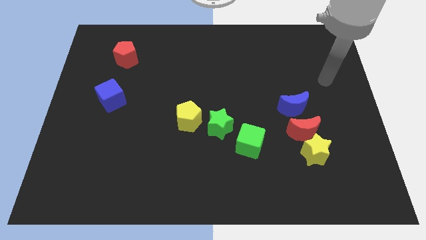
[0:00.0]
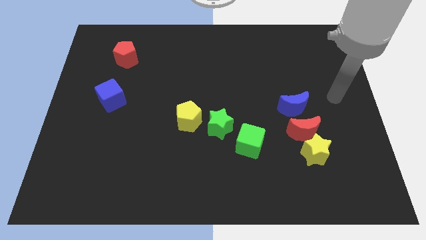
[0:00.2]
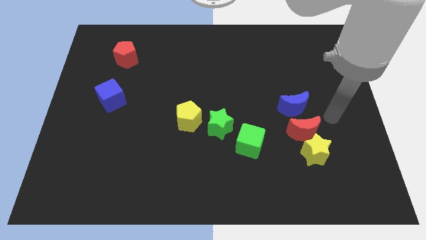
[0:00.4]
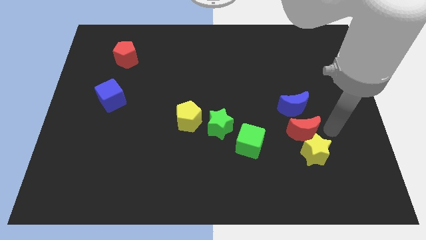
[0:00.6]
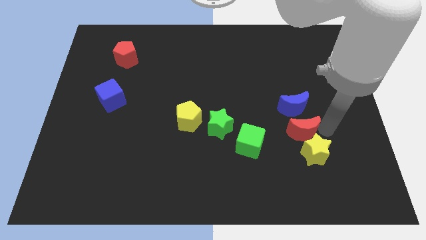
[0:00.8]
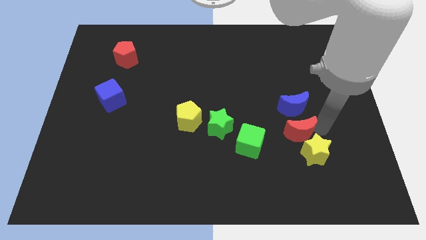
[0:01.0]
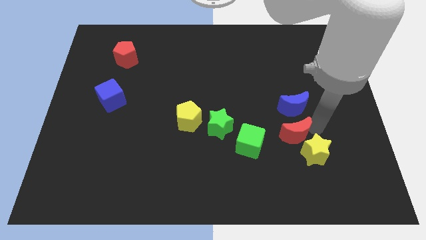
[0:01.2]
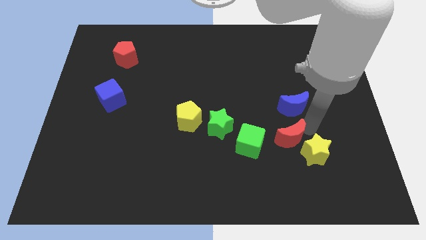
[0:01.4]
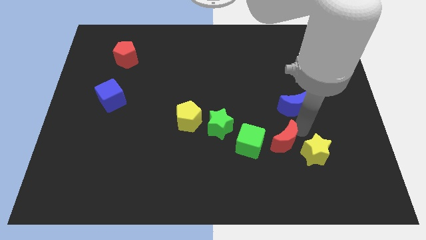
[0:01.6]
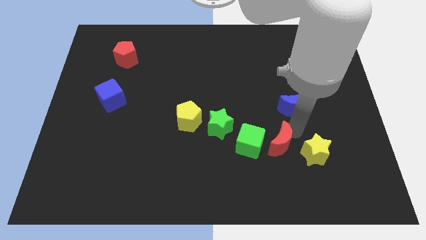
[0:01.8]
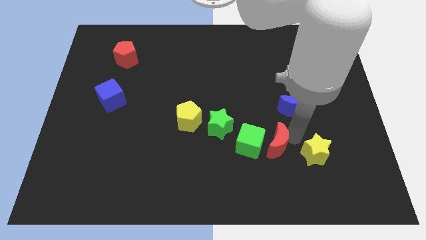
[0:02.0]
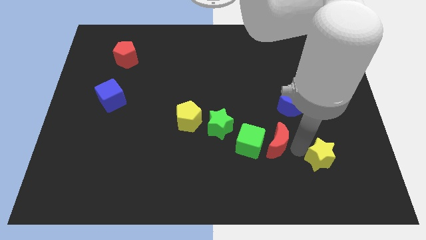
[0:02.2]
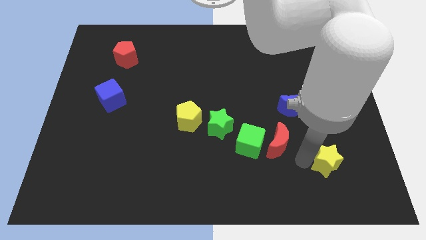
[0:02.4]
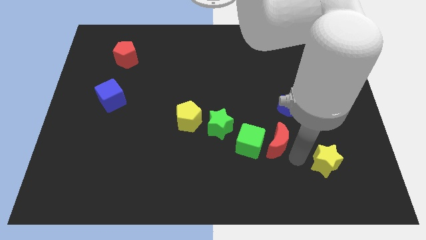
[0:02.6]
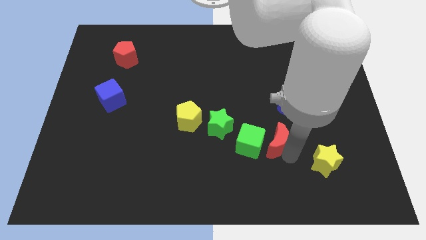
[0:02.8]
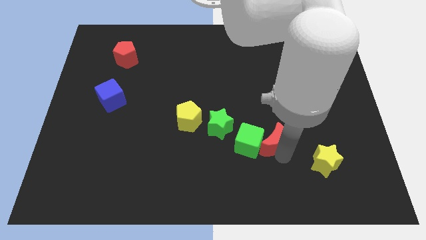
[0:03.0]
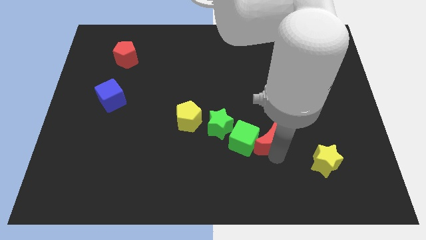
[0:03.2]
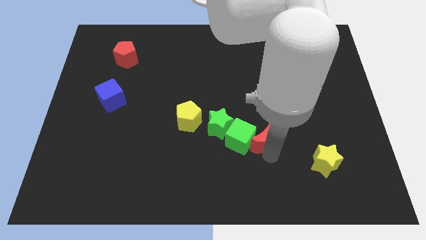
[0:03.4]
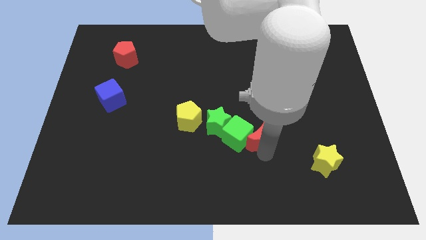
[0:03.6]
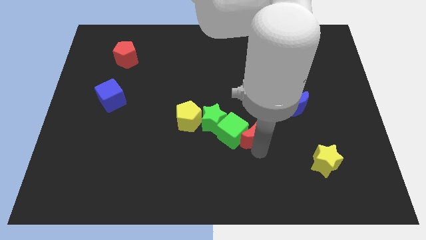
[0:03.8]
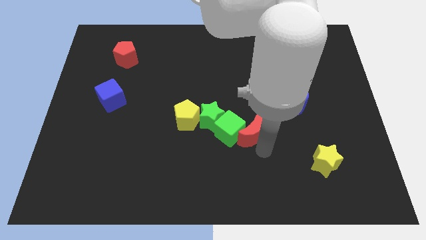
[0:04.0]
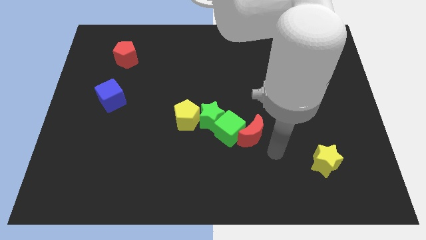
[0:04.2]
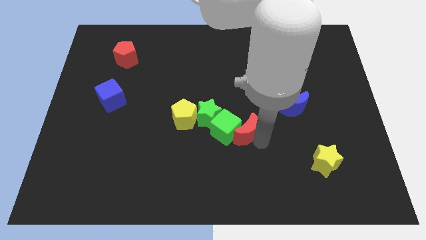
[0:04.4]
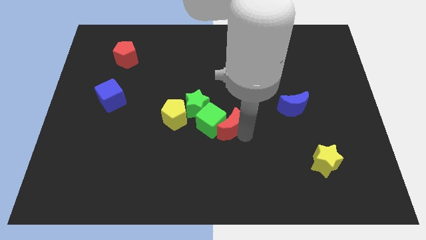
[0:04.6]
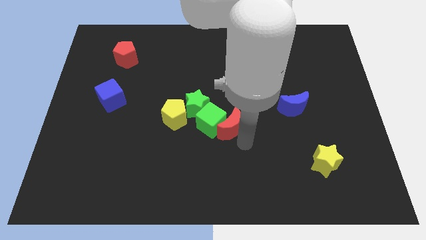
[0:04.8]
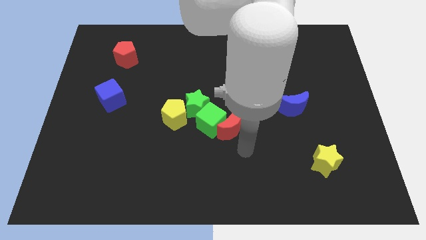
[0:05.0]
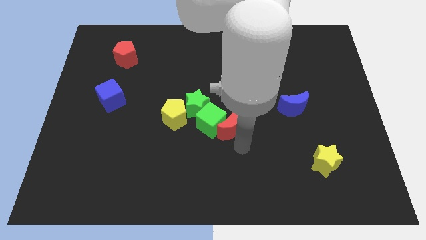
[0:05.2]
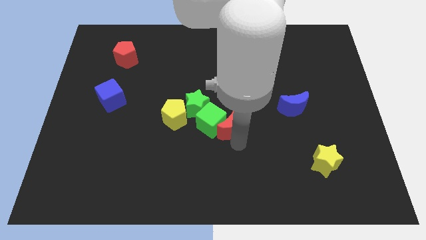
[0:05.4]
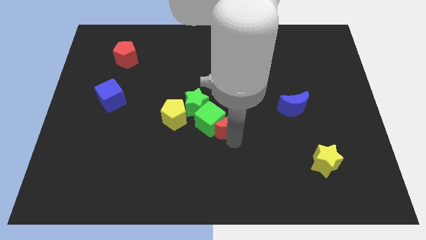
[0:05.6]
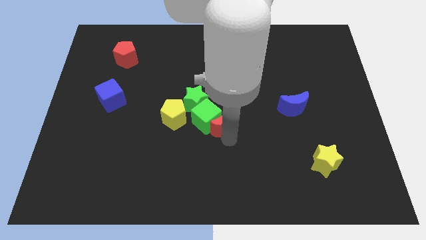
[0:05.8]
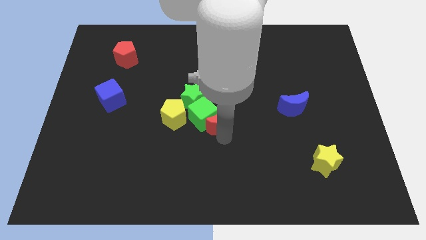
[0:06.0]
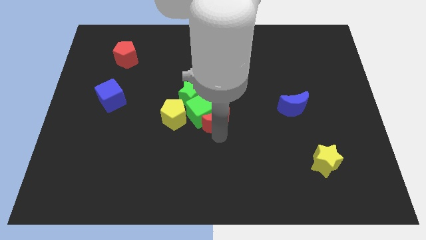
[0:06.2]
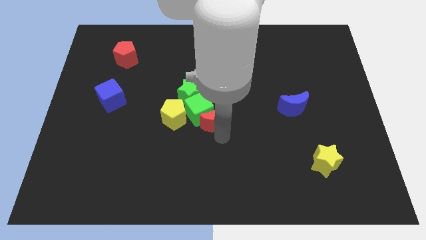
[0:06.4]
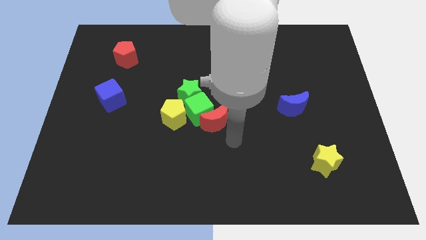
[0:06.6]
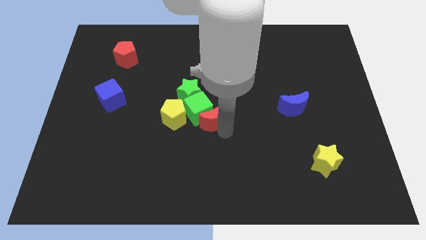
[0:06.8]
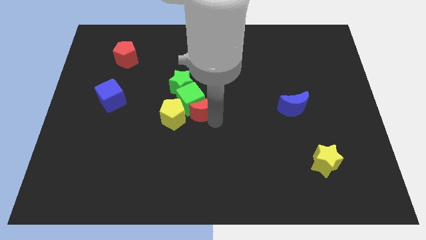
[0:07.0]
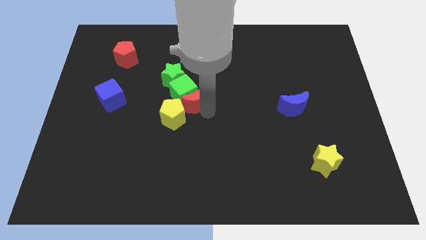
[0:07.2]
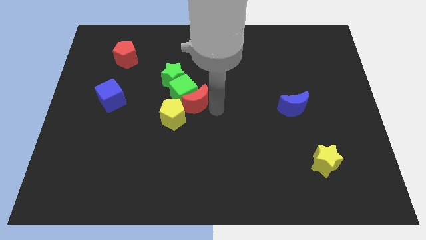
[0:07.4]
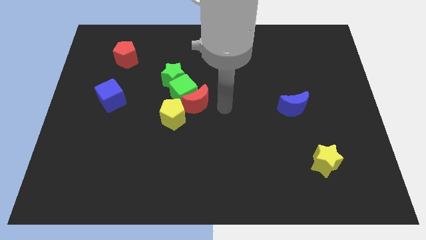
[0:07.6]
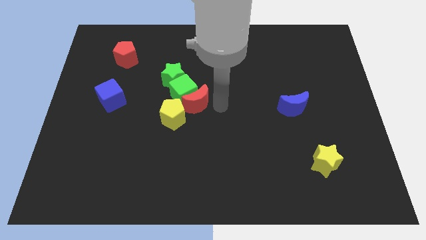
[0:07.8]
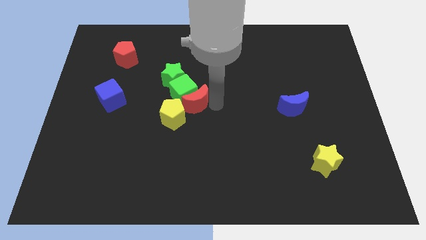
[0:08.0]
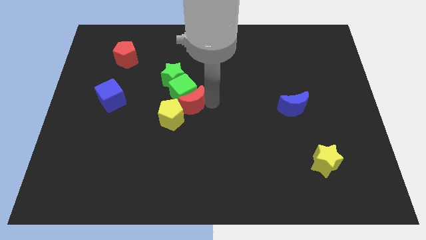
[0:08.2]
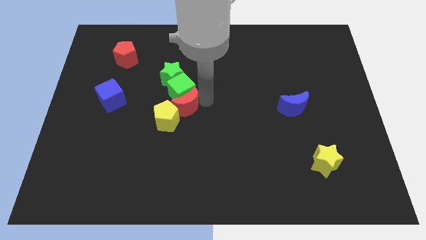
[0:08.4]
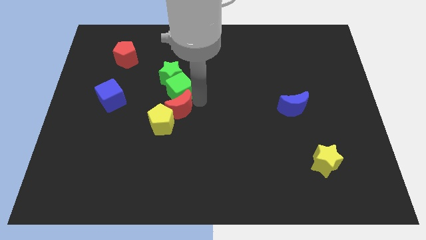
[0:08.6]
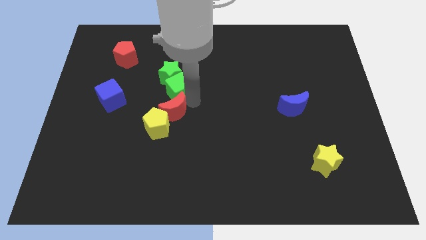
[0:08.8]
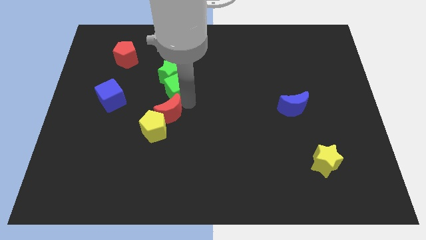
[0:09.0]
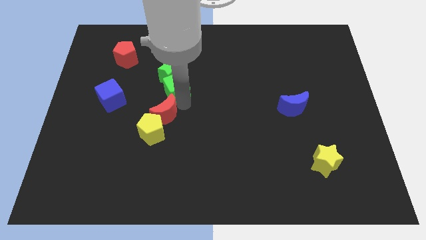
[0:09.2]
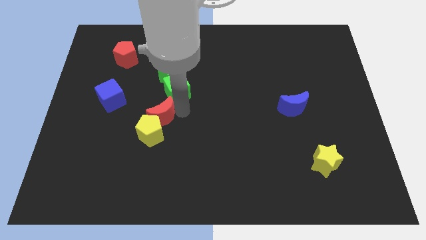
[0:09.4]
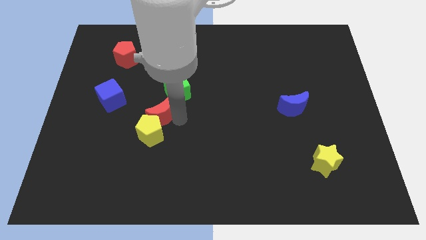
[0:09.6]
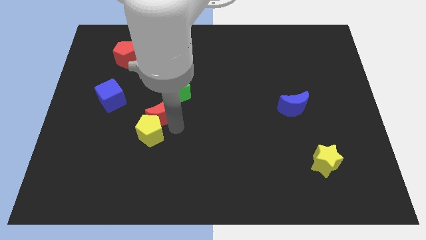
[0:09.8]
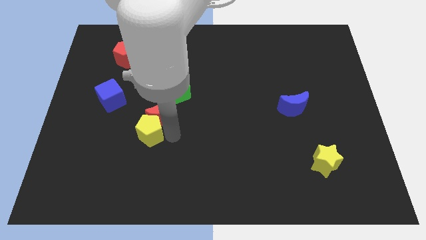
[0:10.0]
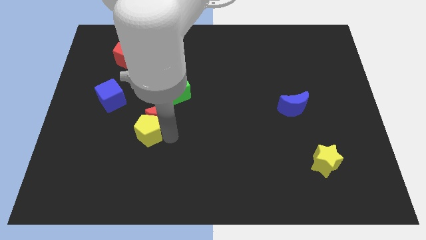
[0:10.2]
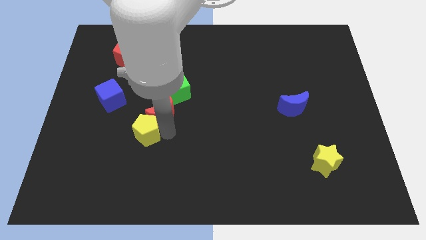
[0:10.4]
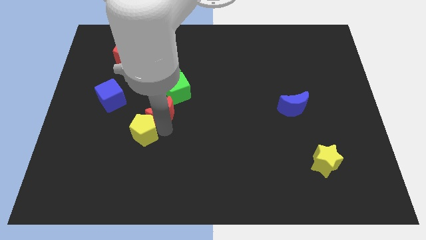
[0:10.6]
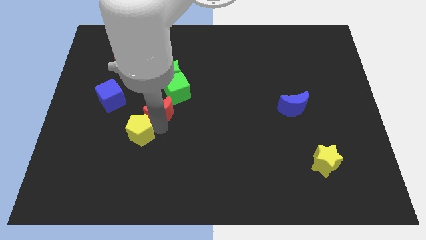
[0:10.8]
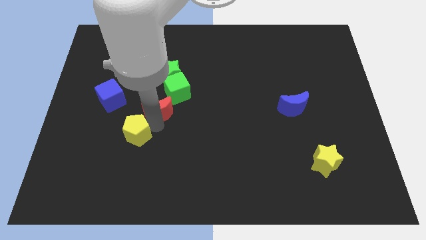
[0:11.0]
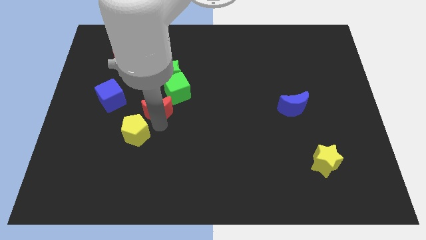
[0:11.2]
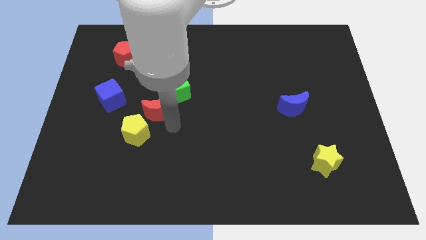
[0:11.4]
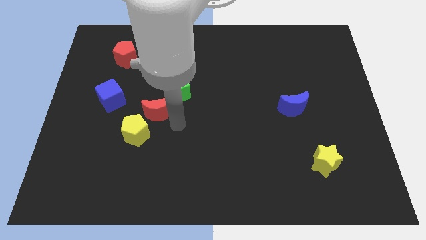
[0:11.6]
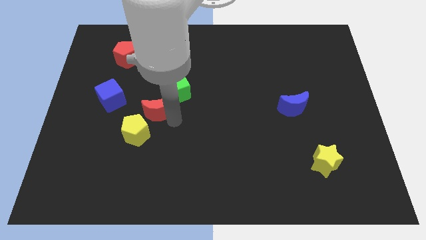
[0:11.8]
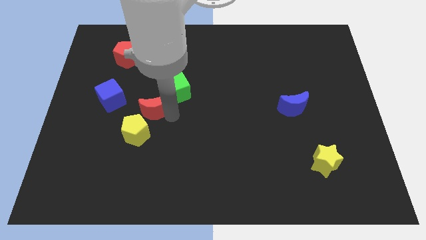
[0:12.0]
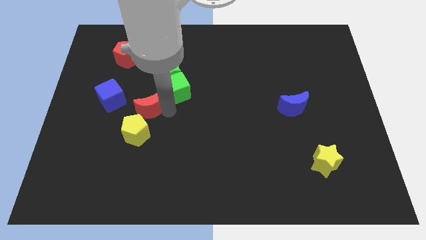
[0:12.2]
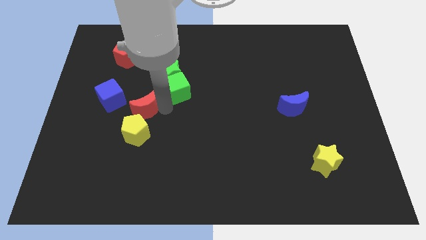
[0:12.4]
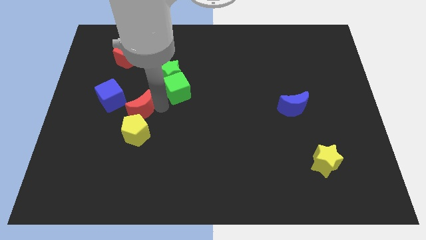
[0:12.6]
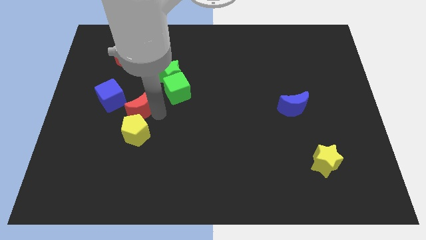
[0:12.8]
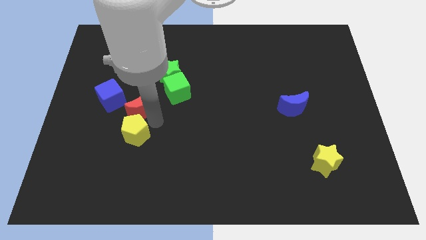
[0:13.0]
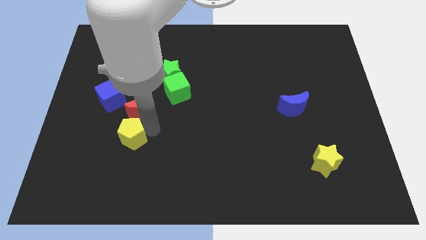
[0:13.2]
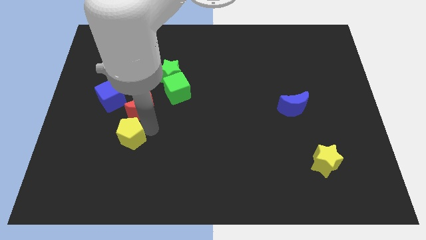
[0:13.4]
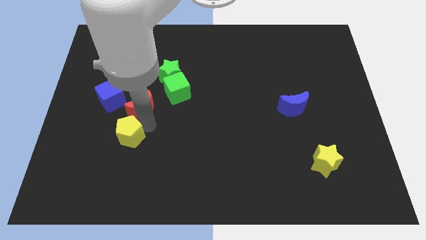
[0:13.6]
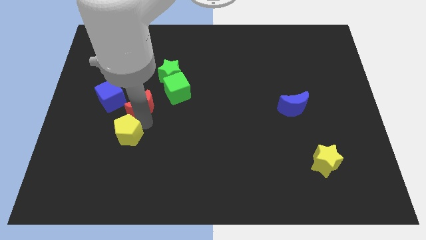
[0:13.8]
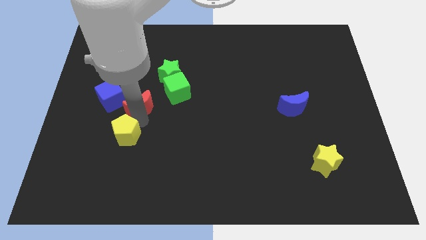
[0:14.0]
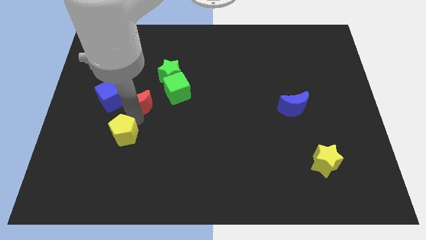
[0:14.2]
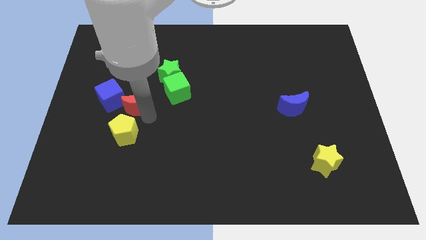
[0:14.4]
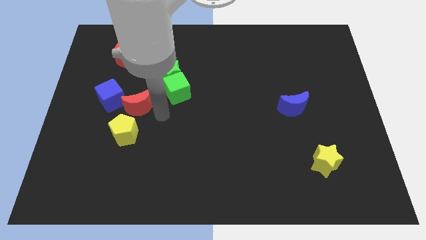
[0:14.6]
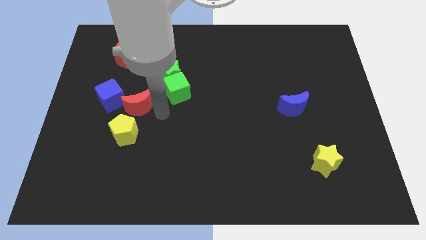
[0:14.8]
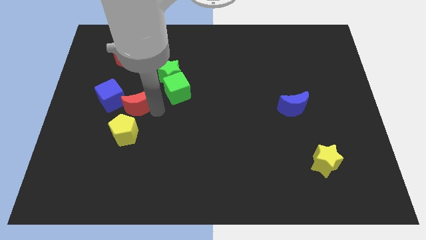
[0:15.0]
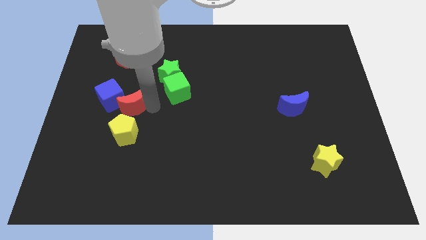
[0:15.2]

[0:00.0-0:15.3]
slide the red moon close to the blue cube
